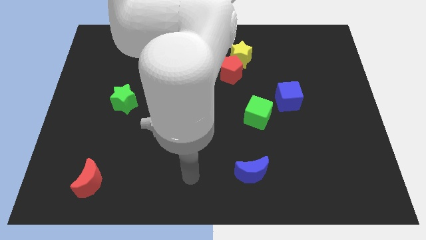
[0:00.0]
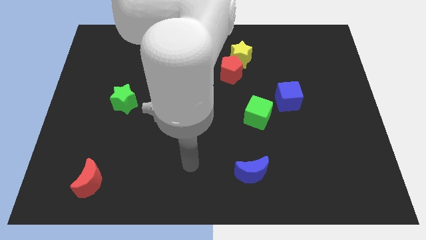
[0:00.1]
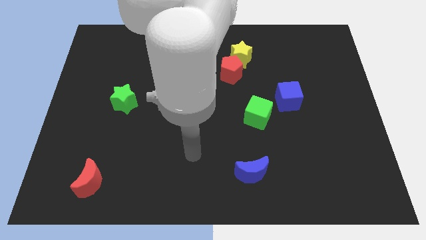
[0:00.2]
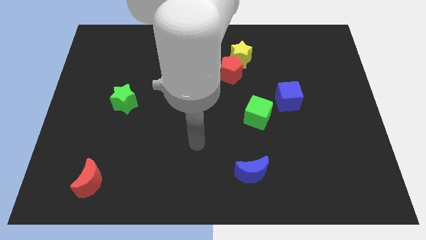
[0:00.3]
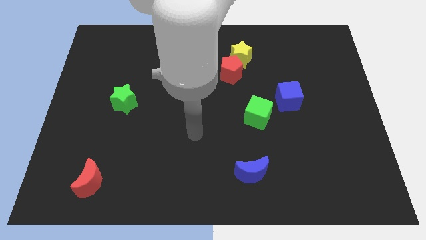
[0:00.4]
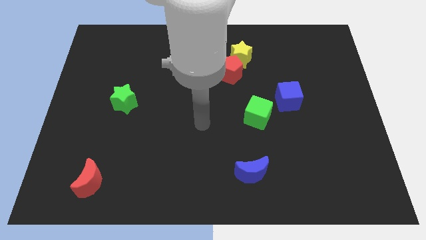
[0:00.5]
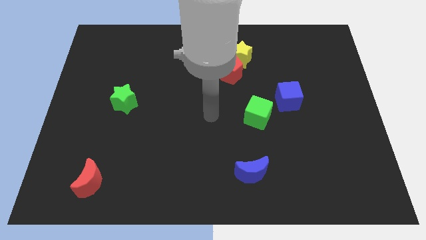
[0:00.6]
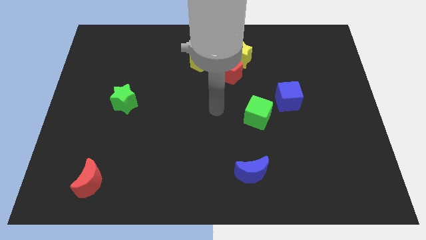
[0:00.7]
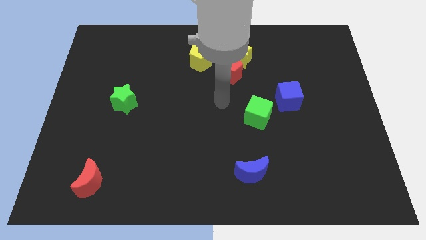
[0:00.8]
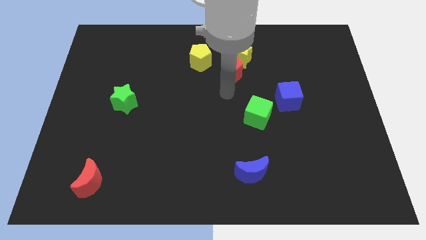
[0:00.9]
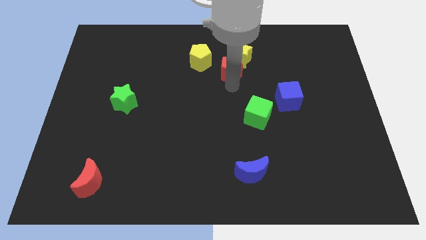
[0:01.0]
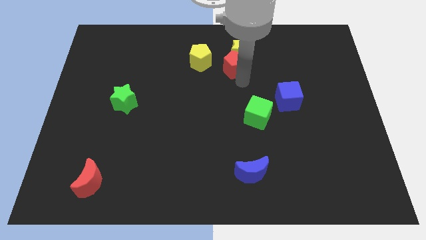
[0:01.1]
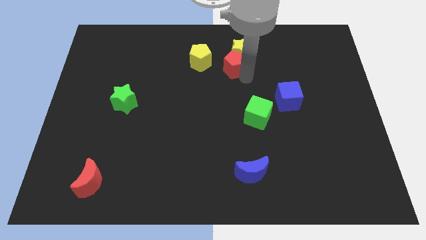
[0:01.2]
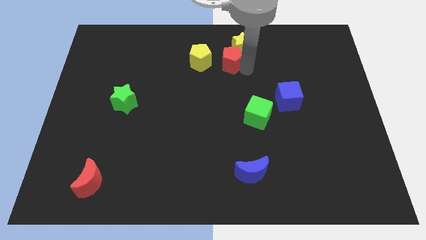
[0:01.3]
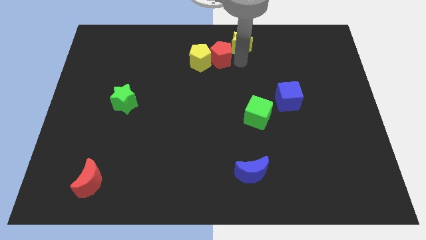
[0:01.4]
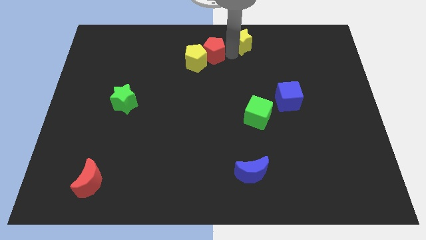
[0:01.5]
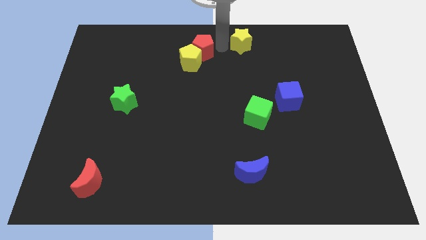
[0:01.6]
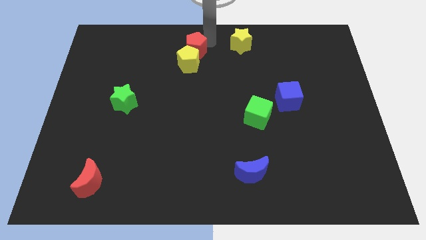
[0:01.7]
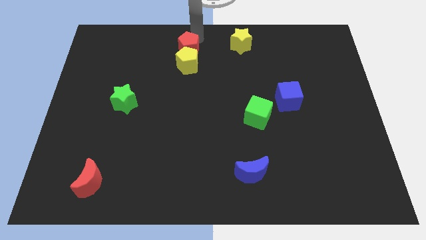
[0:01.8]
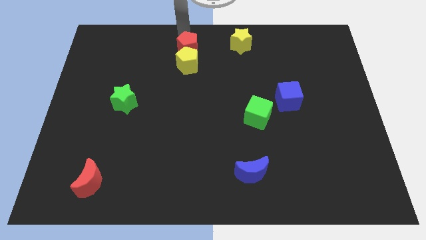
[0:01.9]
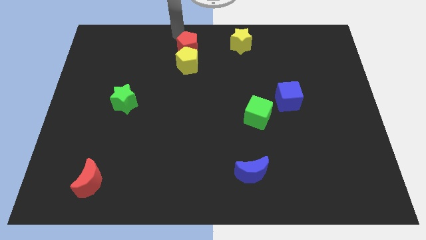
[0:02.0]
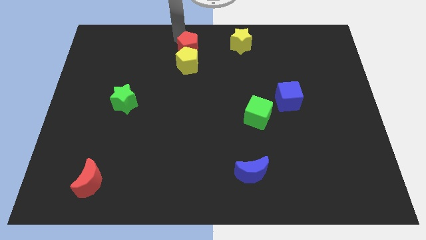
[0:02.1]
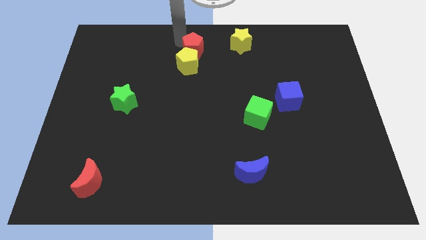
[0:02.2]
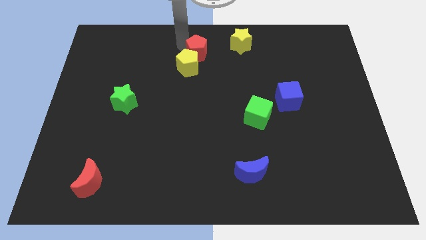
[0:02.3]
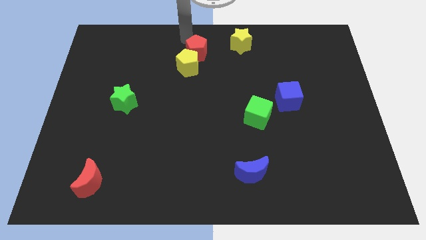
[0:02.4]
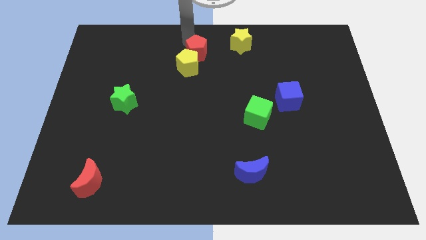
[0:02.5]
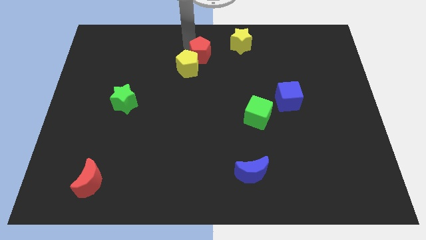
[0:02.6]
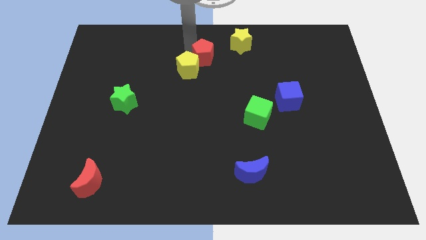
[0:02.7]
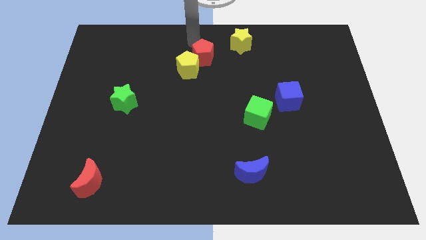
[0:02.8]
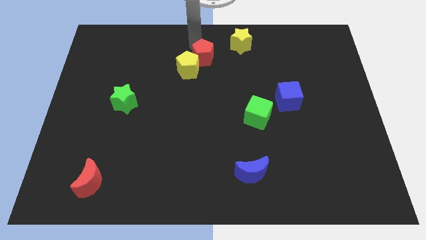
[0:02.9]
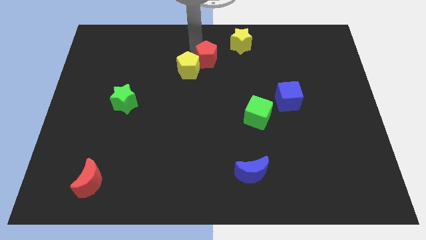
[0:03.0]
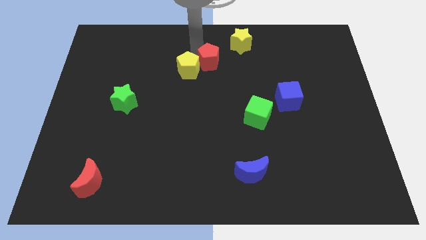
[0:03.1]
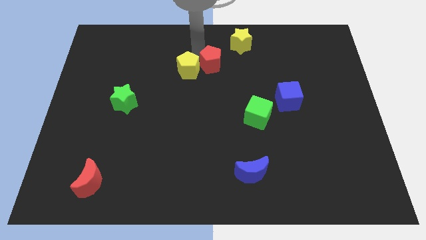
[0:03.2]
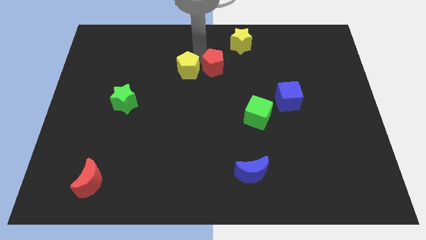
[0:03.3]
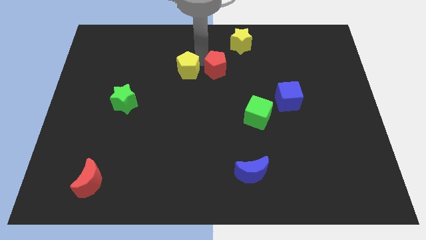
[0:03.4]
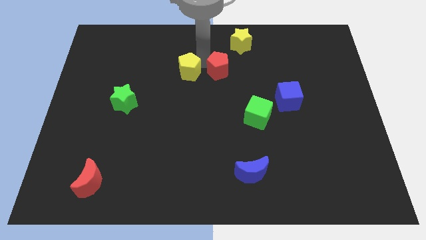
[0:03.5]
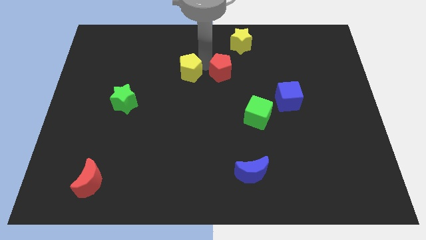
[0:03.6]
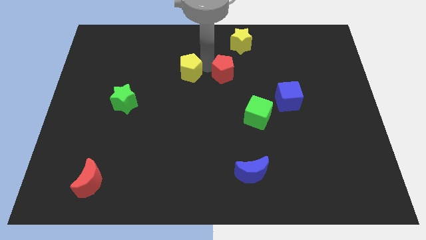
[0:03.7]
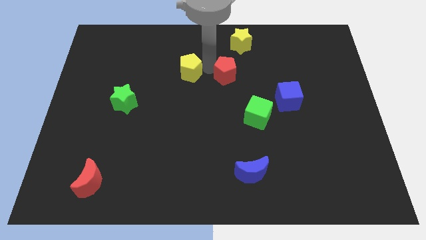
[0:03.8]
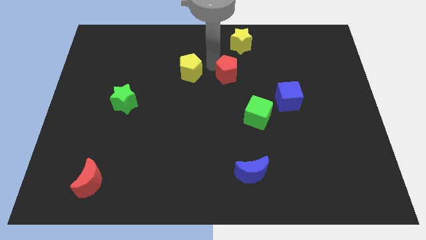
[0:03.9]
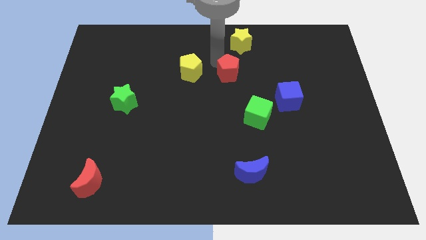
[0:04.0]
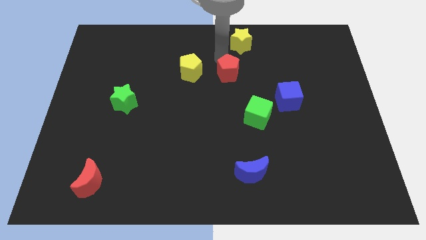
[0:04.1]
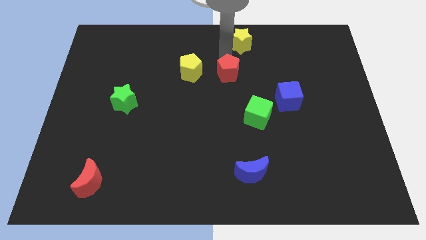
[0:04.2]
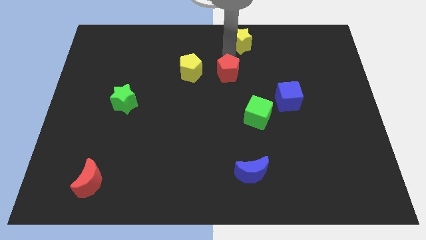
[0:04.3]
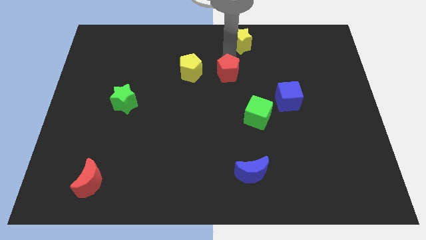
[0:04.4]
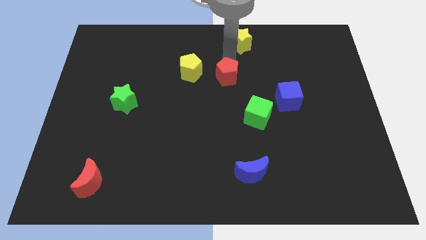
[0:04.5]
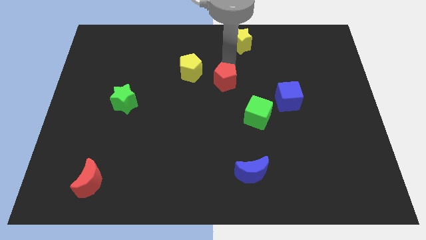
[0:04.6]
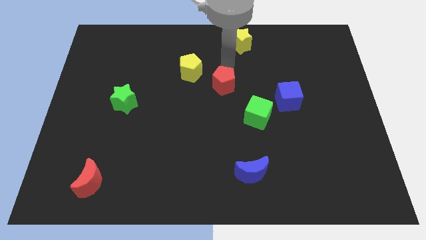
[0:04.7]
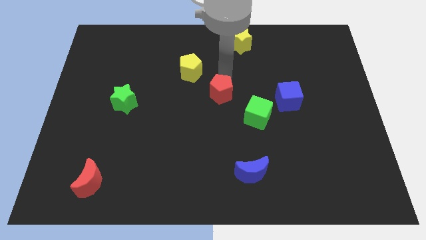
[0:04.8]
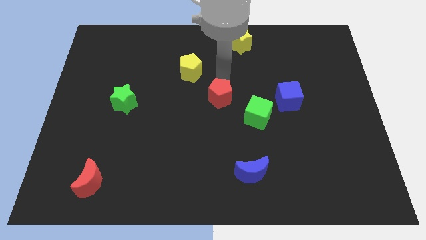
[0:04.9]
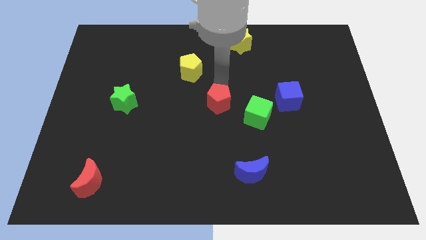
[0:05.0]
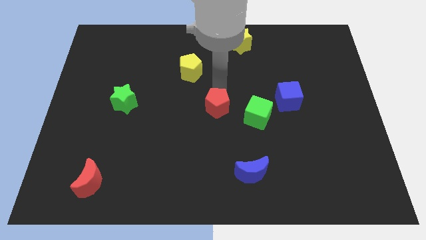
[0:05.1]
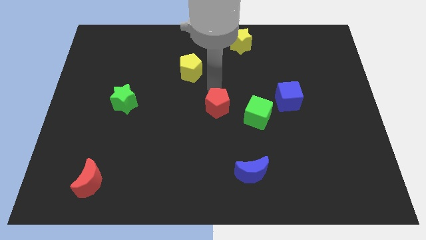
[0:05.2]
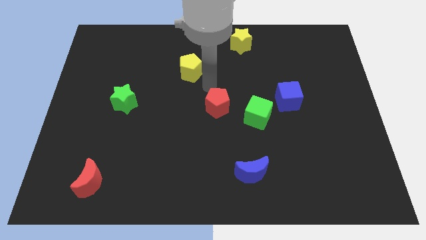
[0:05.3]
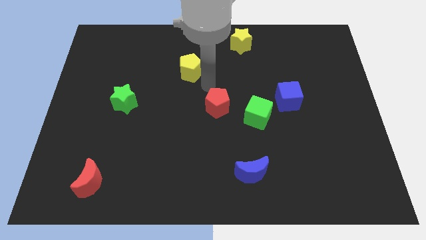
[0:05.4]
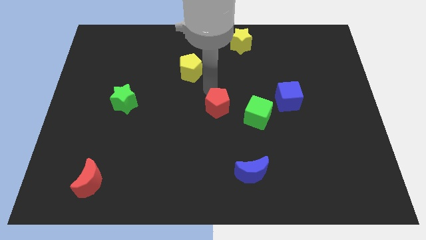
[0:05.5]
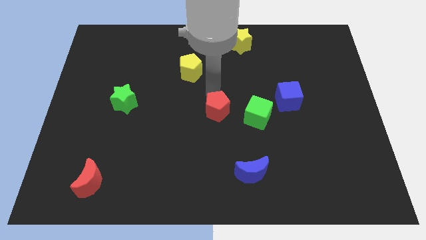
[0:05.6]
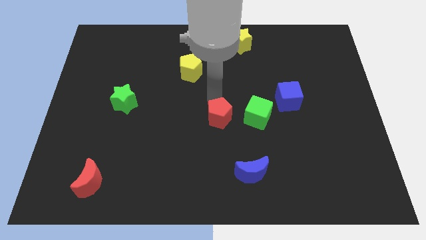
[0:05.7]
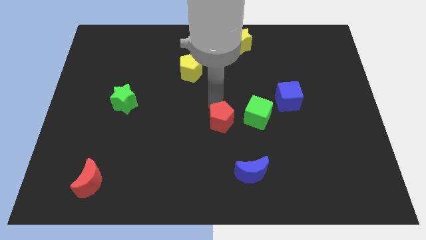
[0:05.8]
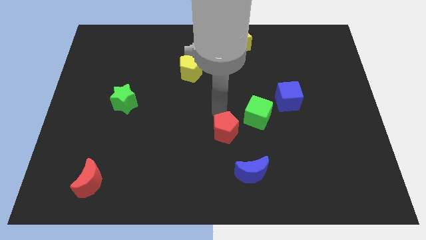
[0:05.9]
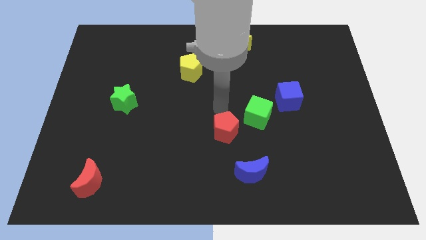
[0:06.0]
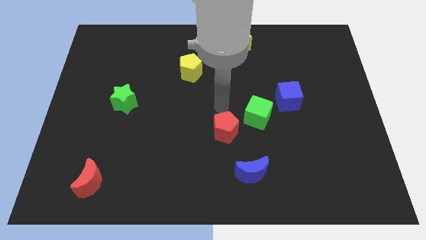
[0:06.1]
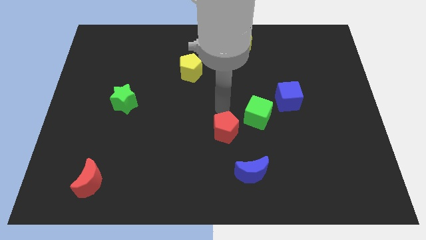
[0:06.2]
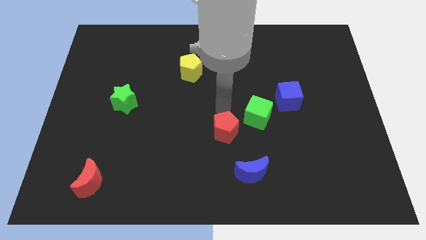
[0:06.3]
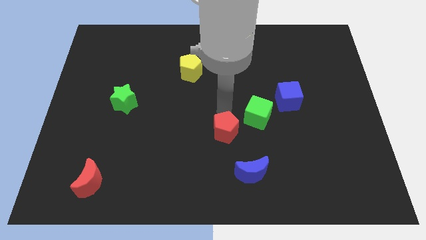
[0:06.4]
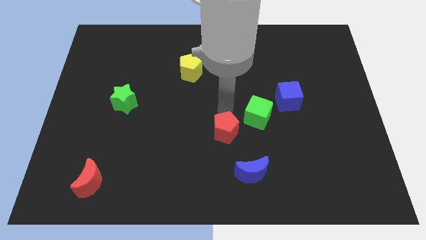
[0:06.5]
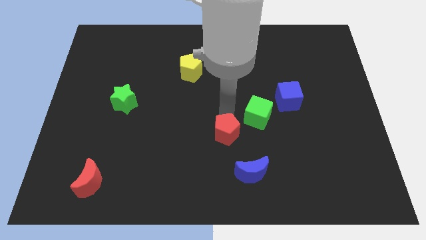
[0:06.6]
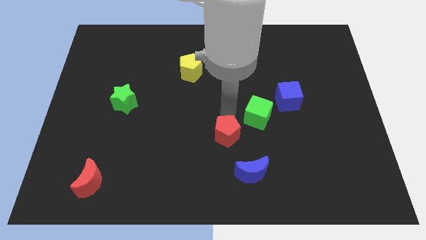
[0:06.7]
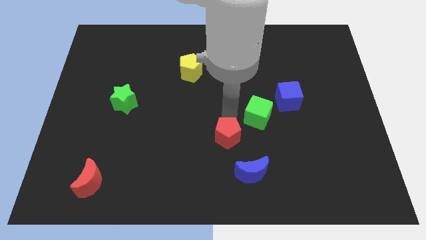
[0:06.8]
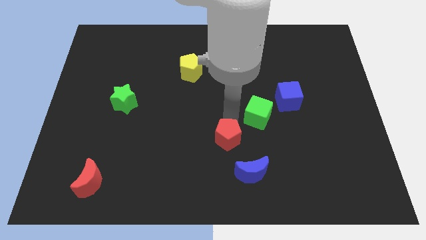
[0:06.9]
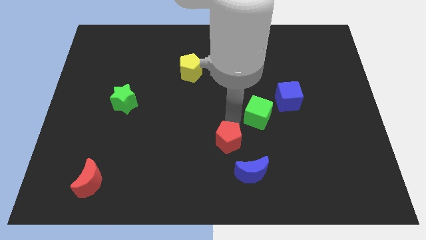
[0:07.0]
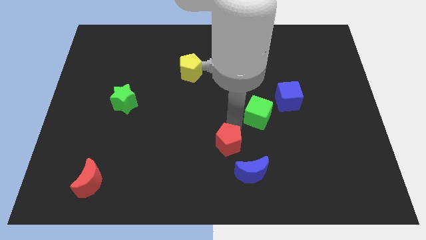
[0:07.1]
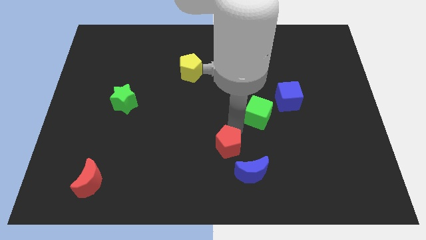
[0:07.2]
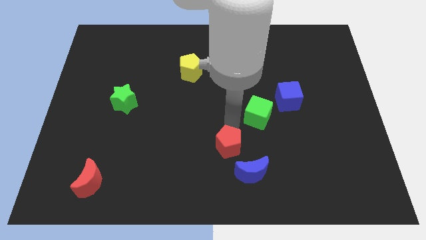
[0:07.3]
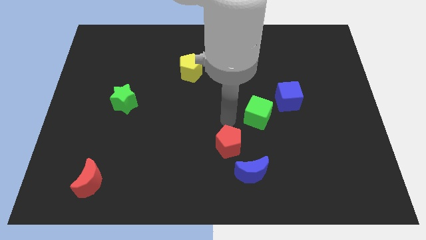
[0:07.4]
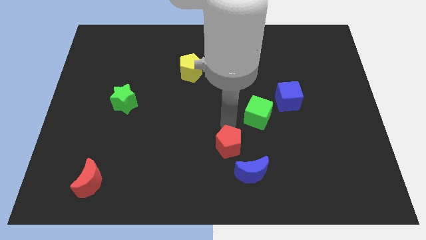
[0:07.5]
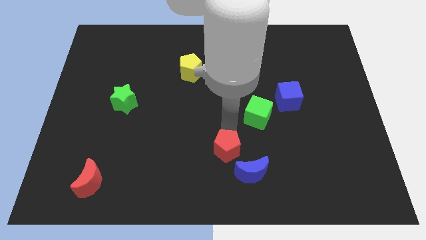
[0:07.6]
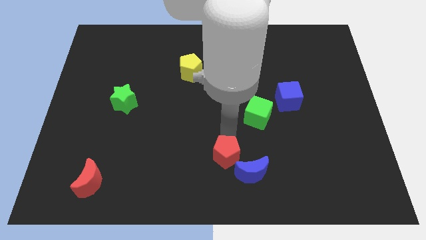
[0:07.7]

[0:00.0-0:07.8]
push the red pentagon to the bottom
